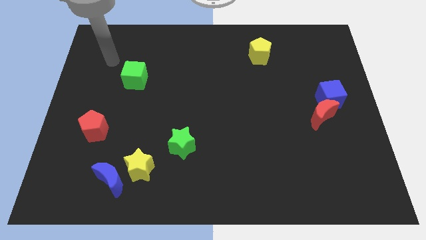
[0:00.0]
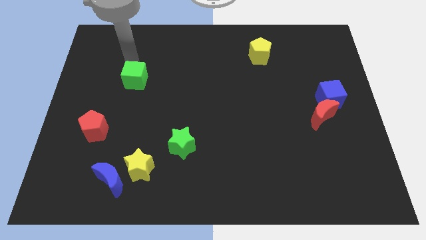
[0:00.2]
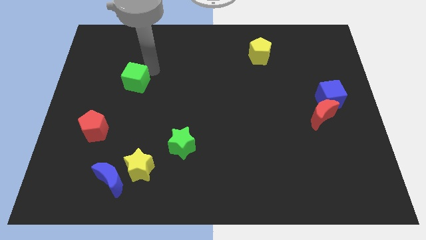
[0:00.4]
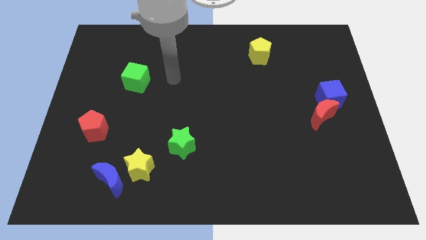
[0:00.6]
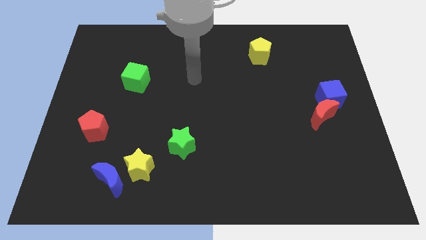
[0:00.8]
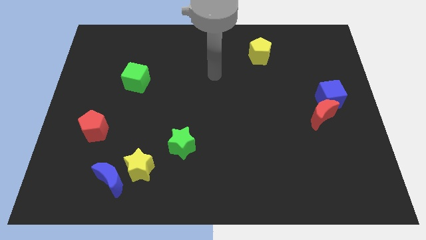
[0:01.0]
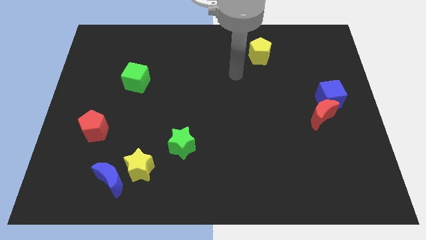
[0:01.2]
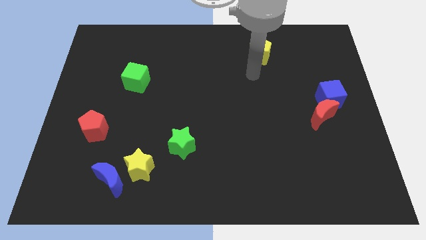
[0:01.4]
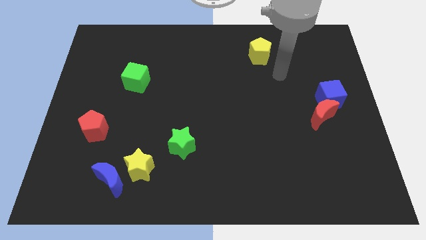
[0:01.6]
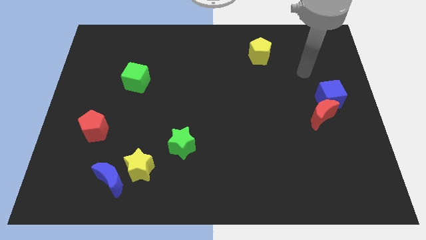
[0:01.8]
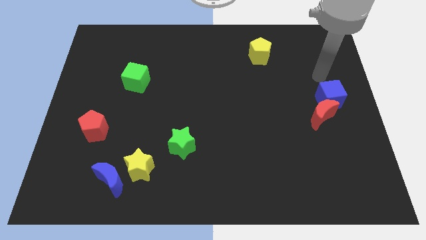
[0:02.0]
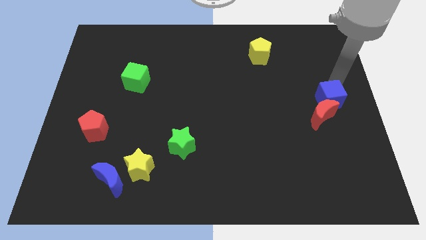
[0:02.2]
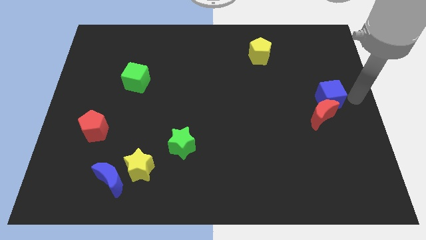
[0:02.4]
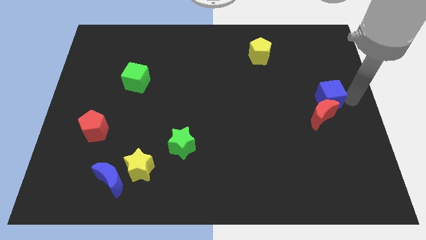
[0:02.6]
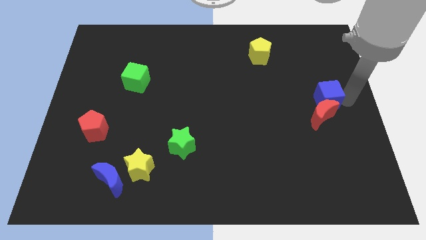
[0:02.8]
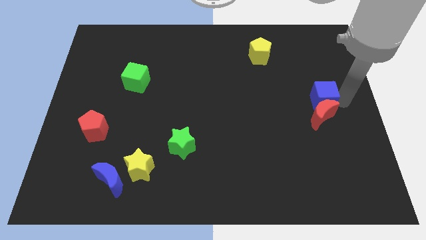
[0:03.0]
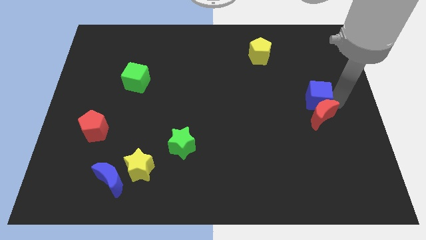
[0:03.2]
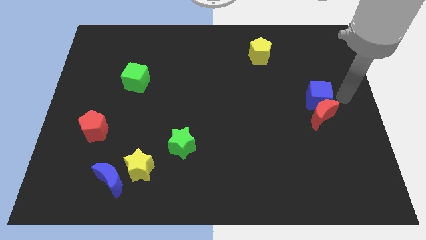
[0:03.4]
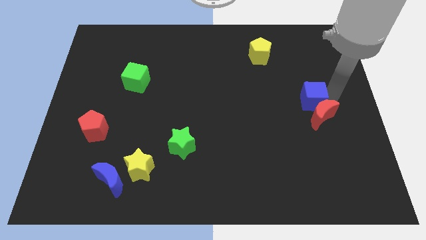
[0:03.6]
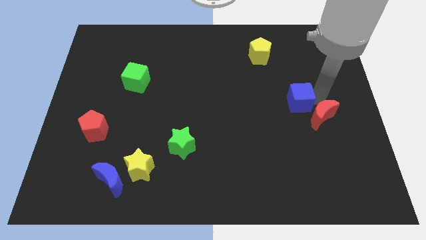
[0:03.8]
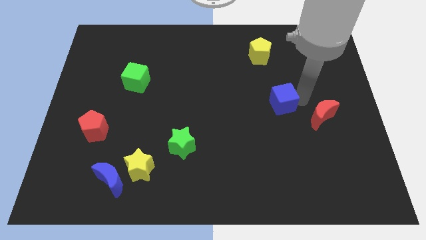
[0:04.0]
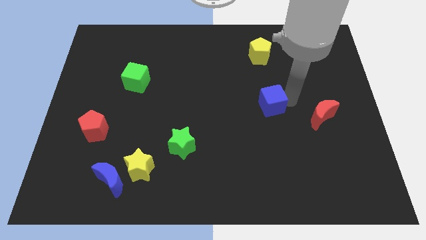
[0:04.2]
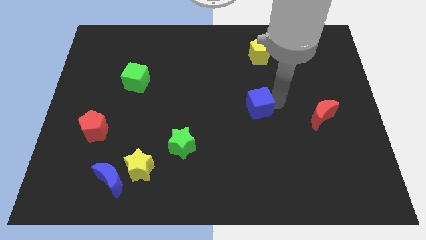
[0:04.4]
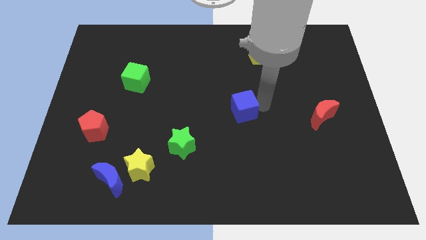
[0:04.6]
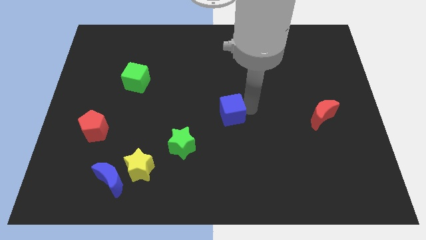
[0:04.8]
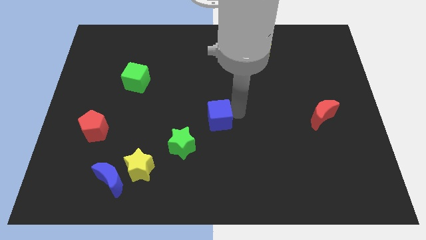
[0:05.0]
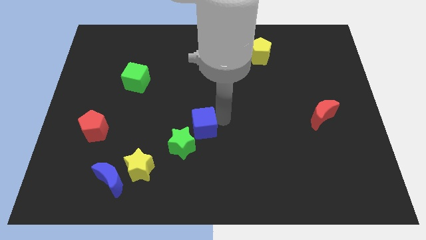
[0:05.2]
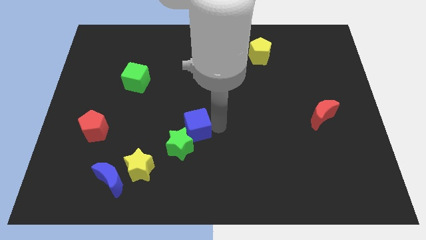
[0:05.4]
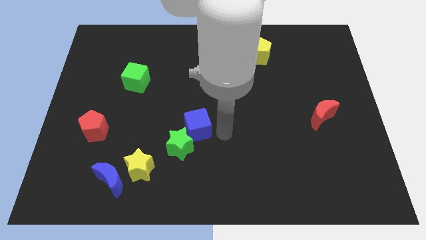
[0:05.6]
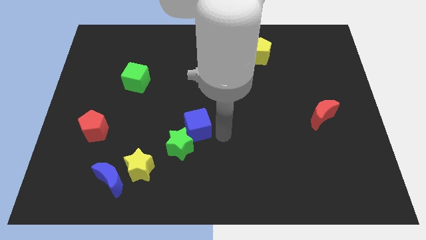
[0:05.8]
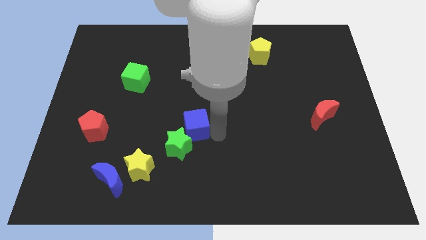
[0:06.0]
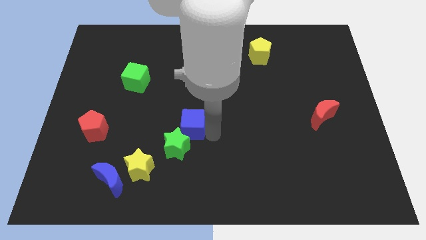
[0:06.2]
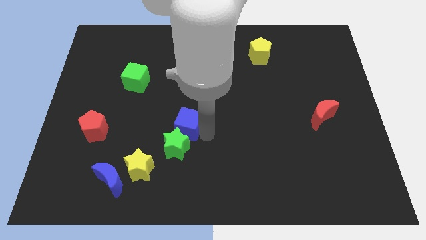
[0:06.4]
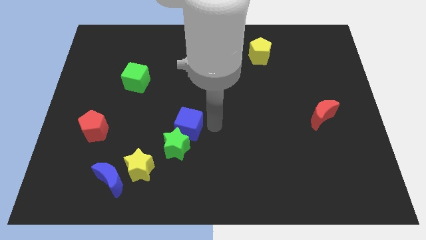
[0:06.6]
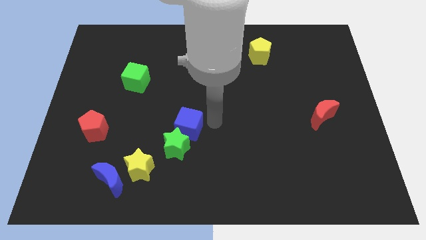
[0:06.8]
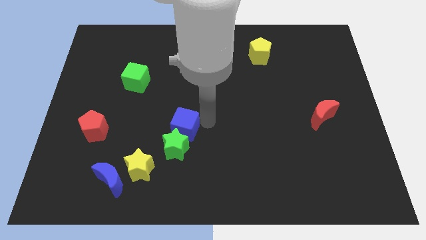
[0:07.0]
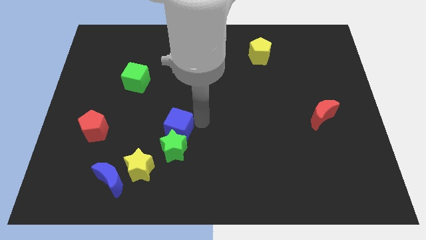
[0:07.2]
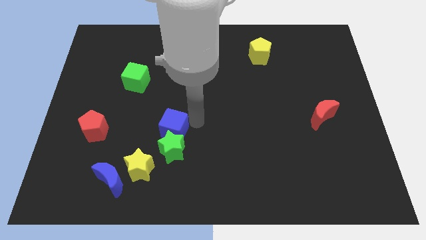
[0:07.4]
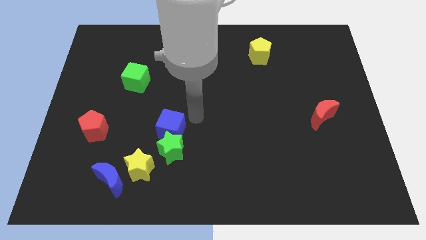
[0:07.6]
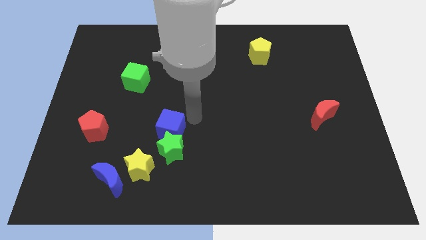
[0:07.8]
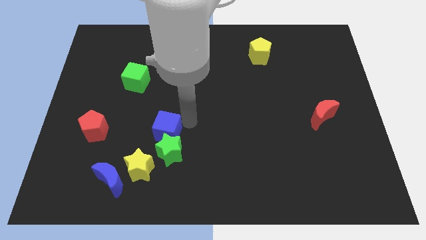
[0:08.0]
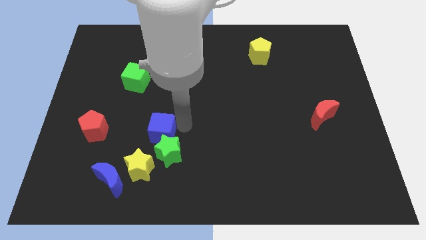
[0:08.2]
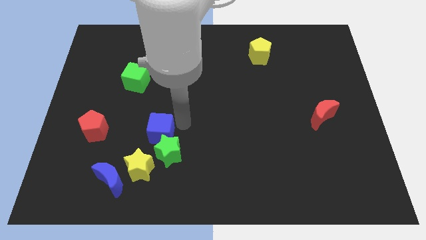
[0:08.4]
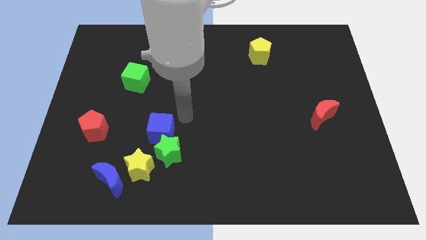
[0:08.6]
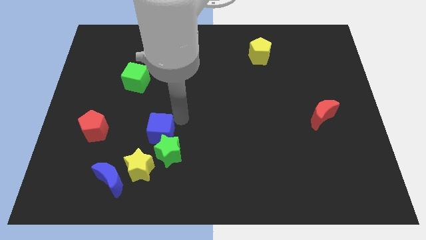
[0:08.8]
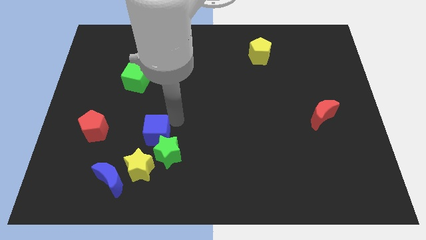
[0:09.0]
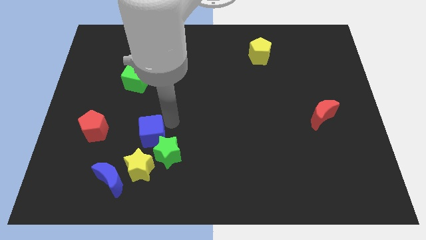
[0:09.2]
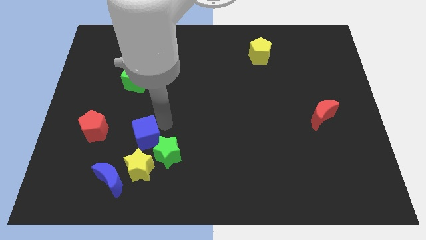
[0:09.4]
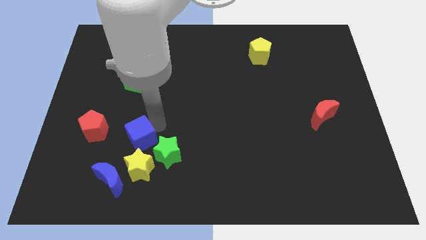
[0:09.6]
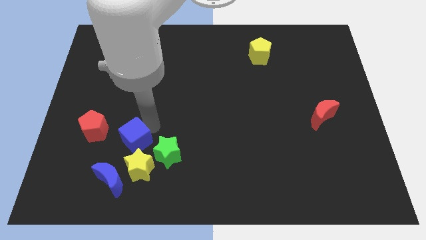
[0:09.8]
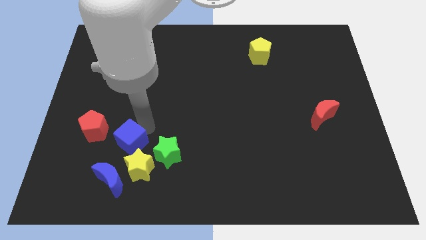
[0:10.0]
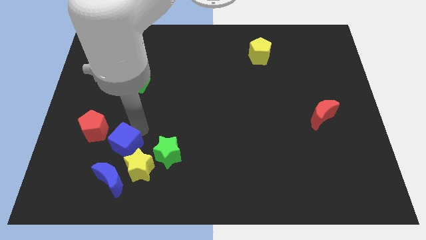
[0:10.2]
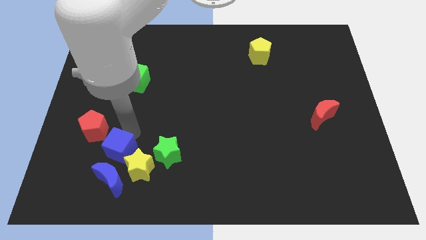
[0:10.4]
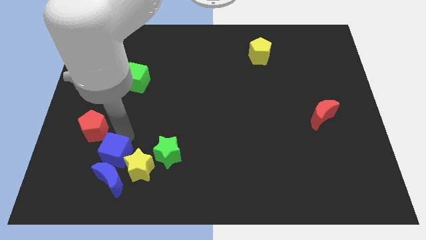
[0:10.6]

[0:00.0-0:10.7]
slide the blue cube close to the blue moon

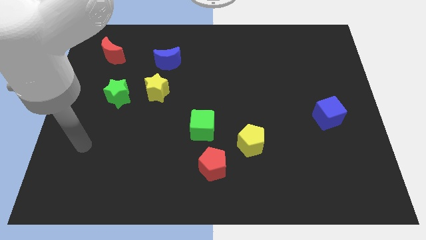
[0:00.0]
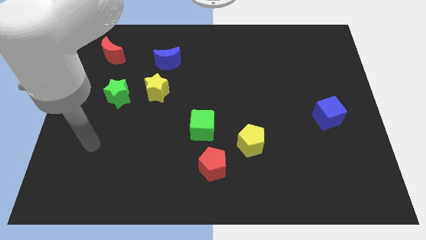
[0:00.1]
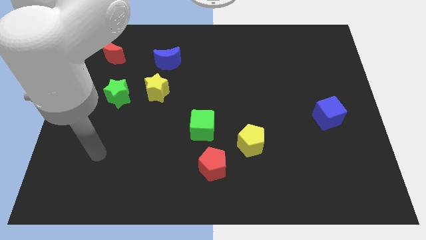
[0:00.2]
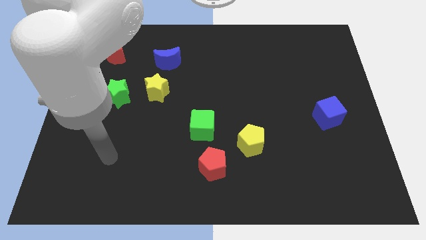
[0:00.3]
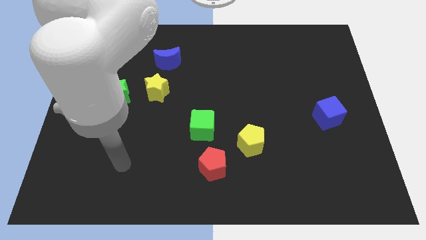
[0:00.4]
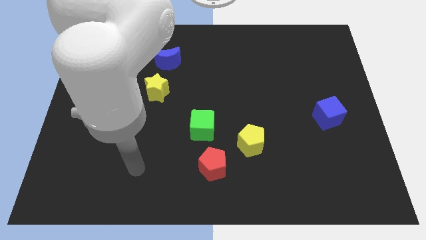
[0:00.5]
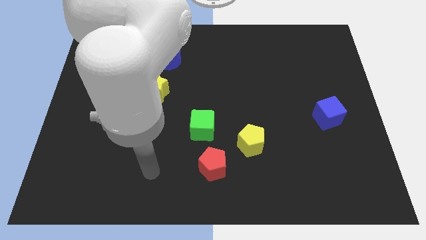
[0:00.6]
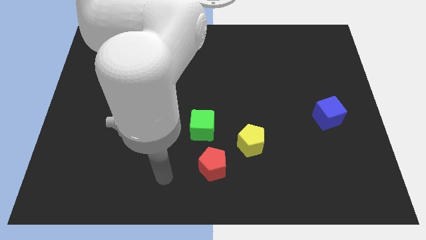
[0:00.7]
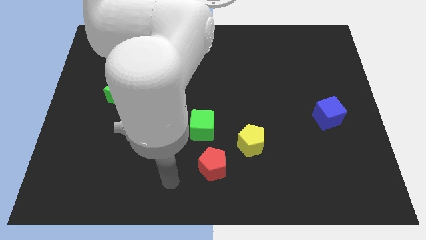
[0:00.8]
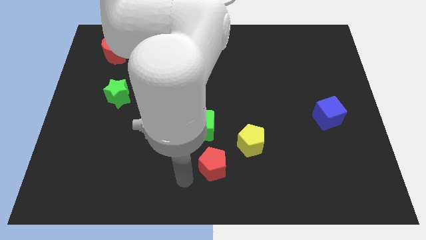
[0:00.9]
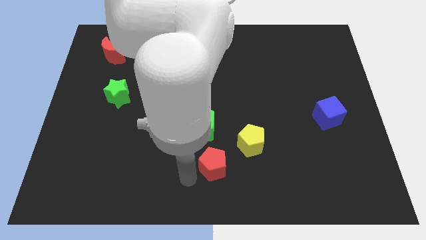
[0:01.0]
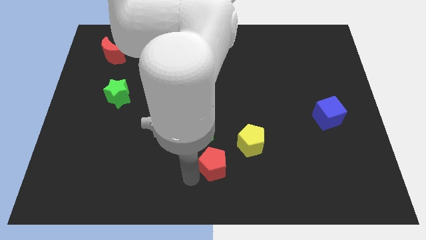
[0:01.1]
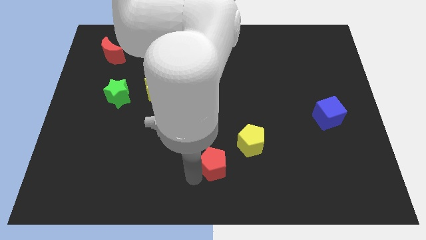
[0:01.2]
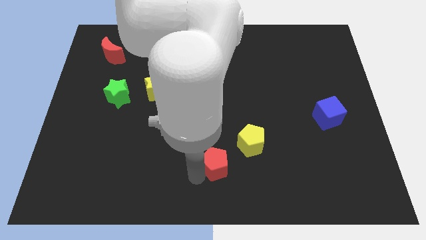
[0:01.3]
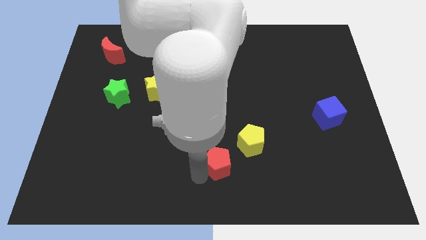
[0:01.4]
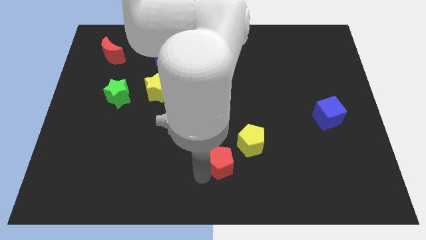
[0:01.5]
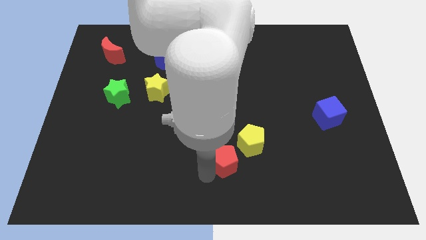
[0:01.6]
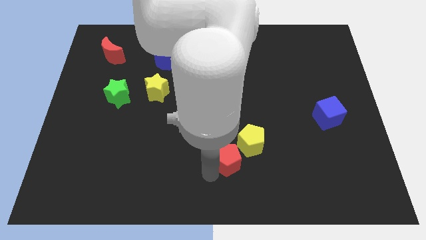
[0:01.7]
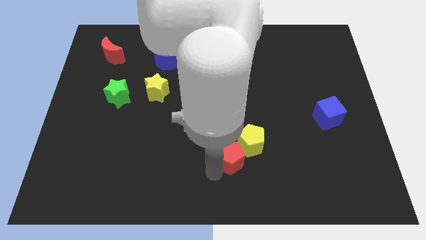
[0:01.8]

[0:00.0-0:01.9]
put the red pentagon to the yellow pentagon

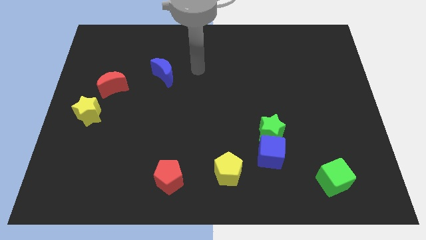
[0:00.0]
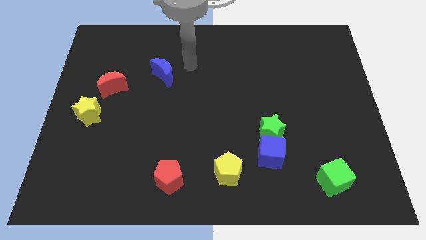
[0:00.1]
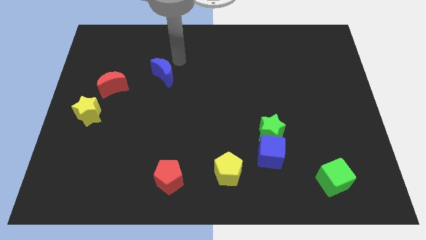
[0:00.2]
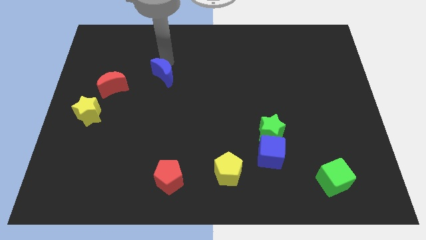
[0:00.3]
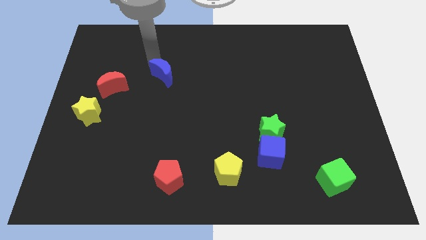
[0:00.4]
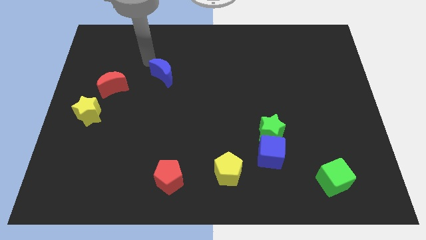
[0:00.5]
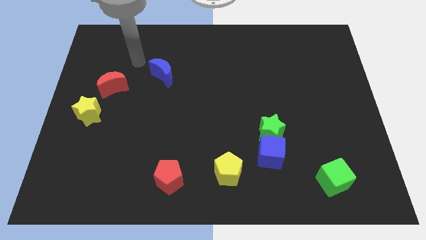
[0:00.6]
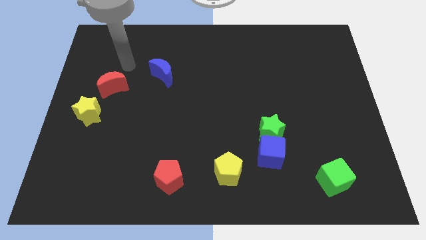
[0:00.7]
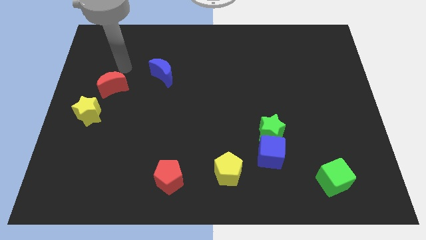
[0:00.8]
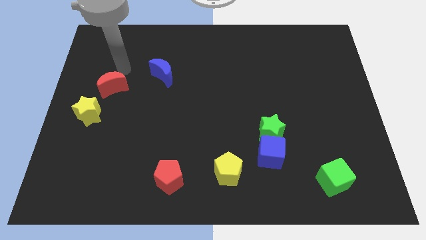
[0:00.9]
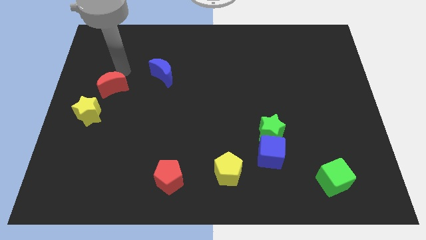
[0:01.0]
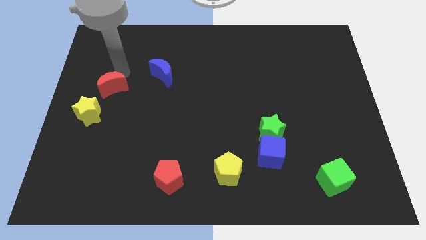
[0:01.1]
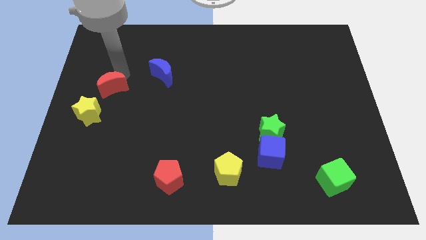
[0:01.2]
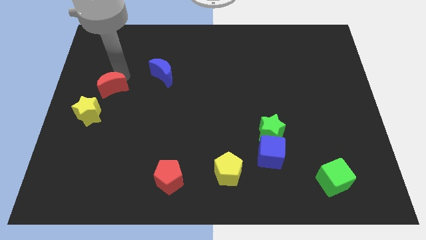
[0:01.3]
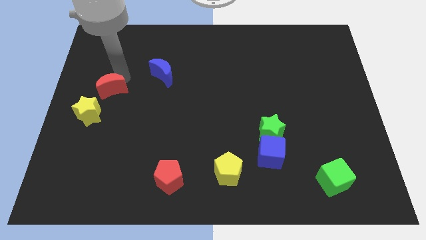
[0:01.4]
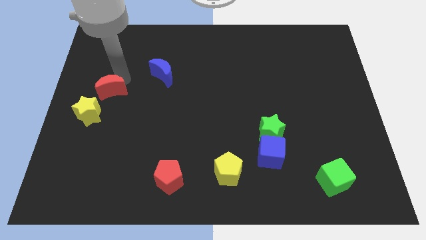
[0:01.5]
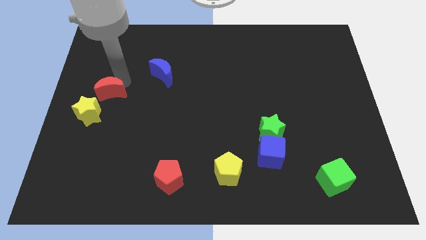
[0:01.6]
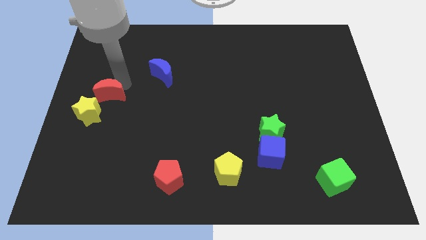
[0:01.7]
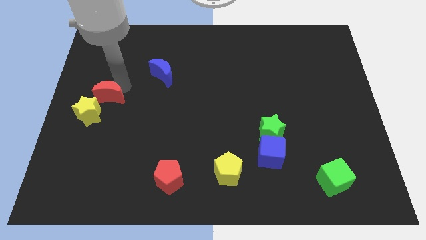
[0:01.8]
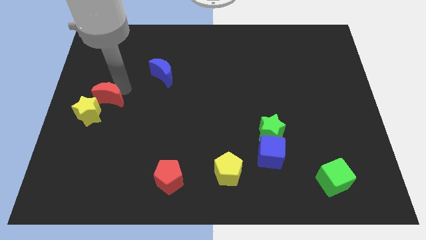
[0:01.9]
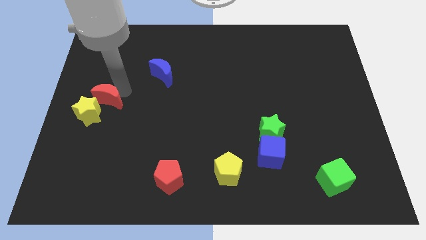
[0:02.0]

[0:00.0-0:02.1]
move the red moon towards the yellow star
